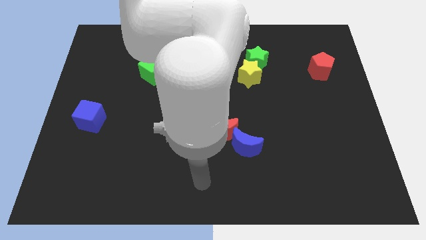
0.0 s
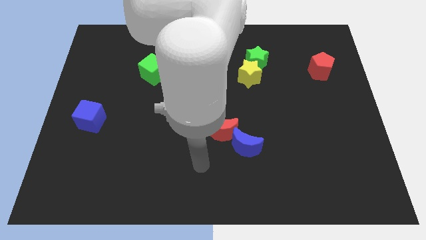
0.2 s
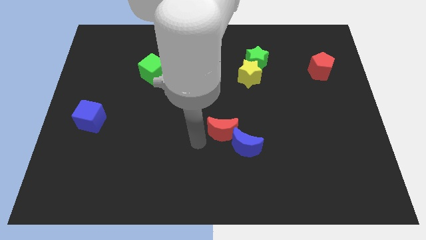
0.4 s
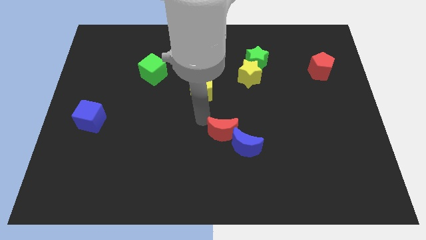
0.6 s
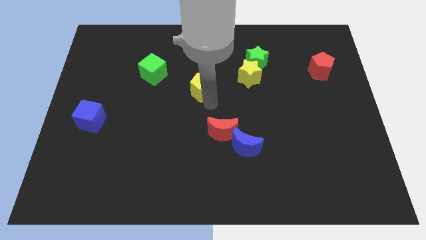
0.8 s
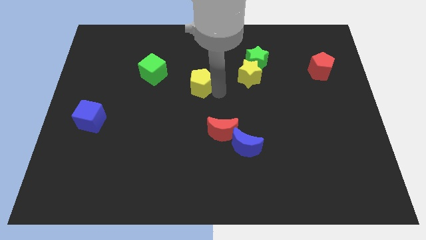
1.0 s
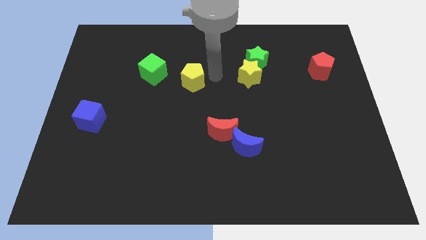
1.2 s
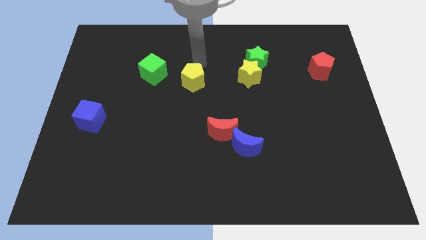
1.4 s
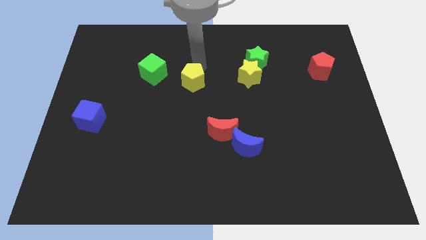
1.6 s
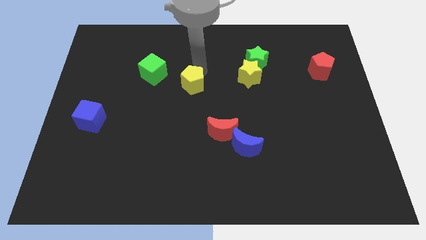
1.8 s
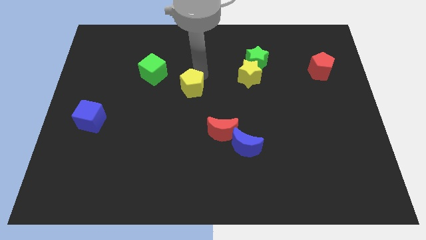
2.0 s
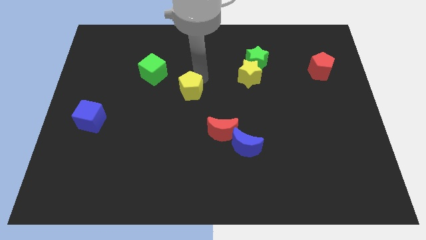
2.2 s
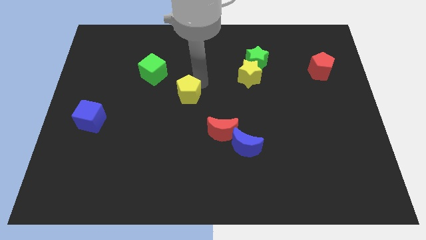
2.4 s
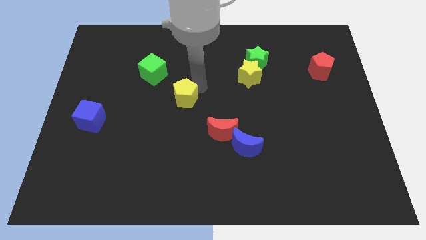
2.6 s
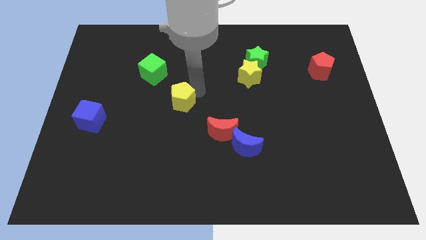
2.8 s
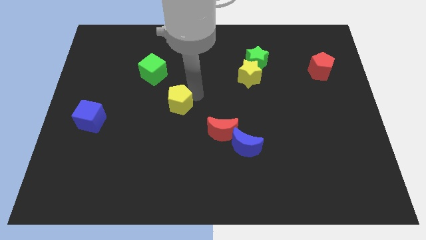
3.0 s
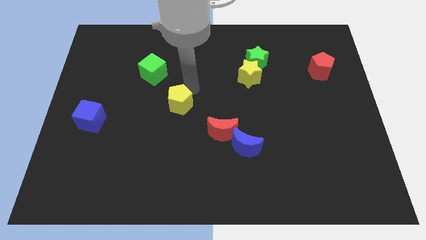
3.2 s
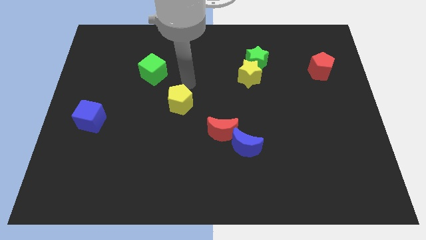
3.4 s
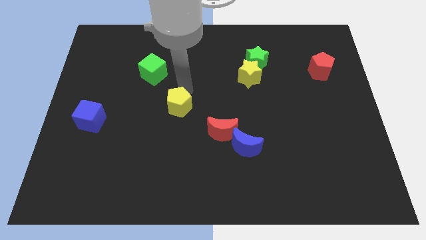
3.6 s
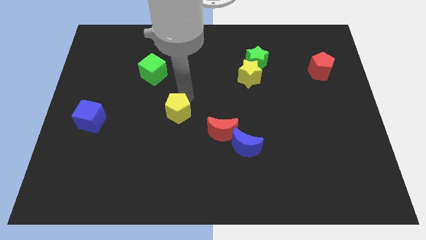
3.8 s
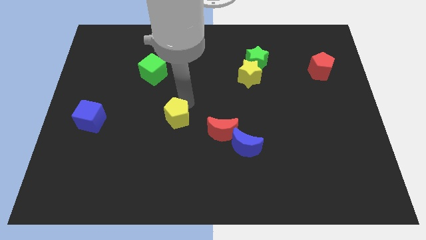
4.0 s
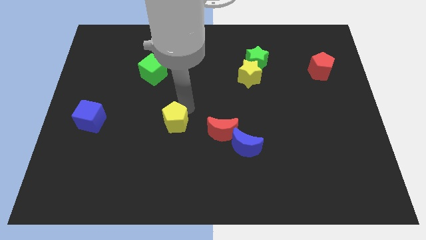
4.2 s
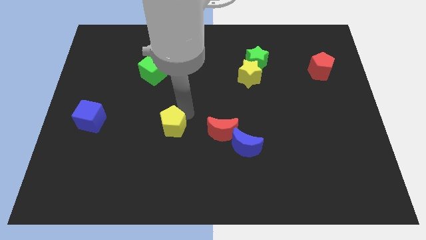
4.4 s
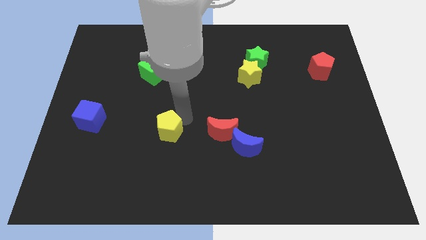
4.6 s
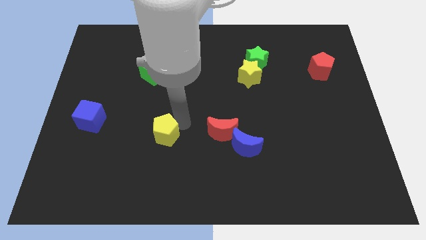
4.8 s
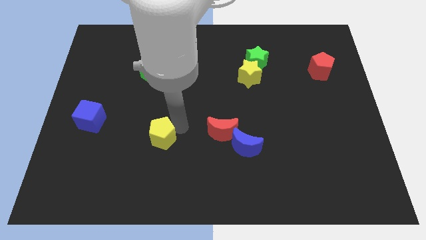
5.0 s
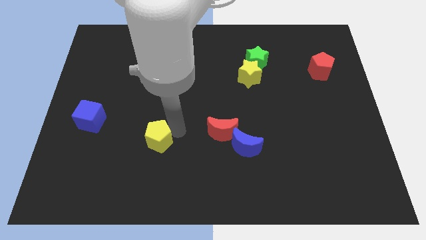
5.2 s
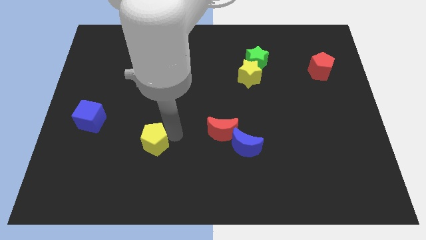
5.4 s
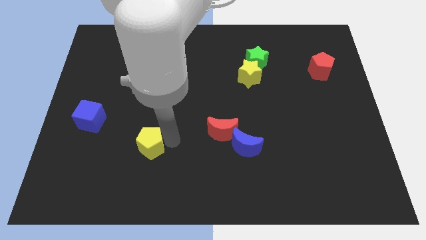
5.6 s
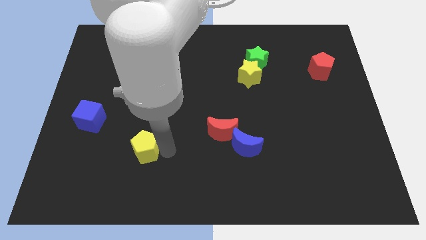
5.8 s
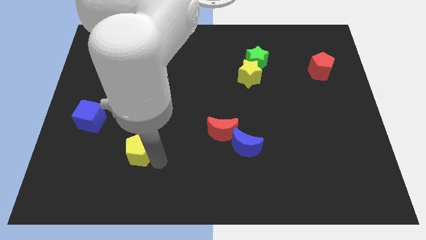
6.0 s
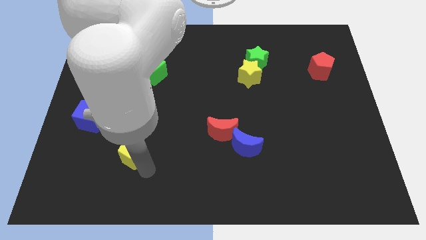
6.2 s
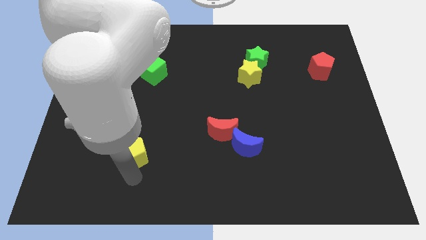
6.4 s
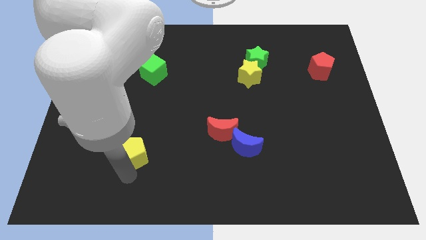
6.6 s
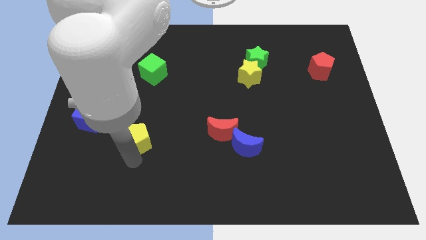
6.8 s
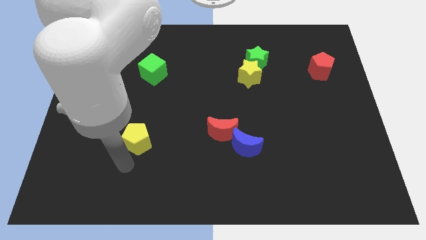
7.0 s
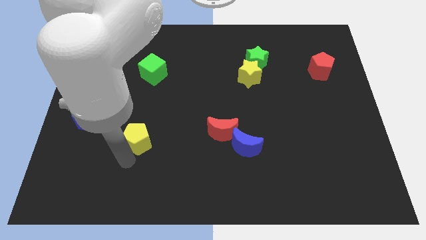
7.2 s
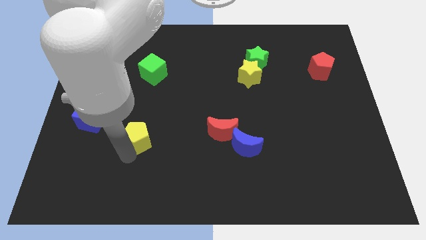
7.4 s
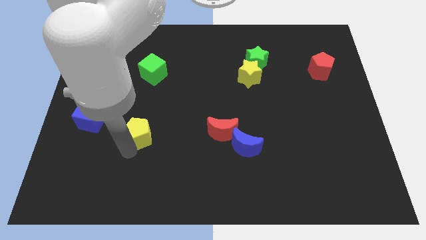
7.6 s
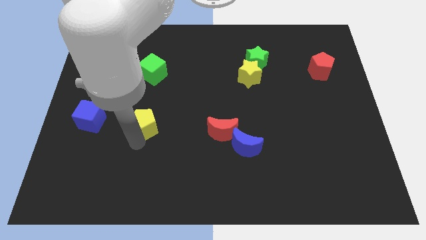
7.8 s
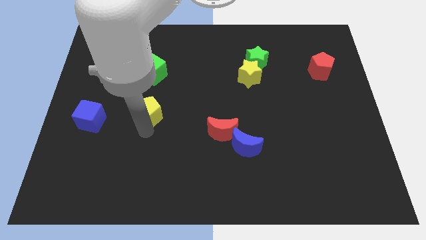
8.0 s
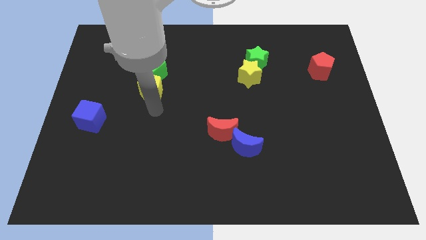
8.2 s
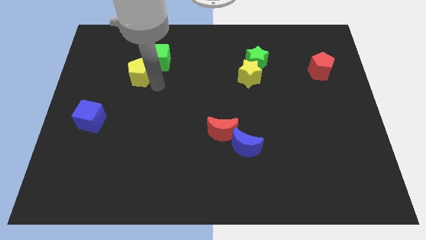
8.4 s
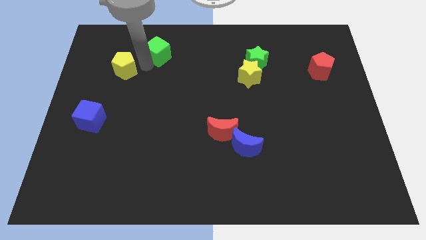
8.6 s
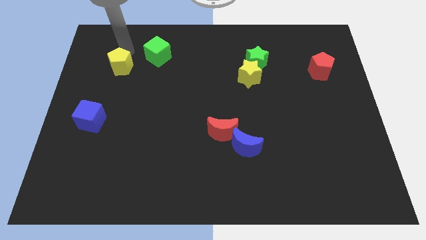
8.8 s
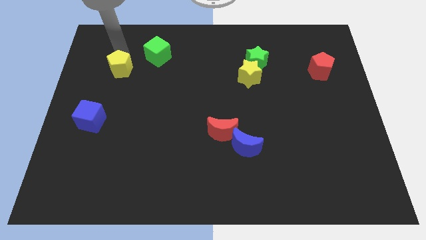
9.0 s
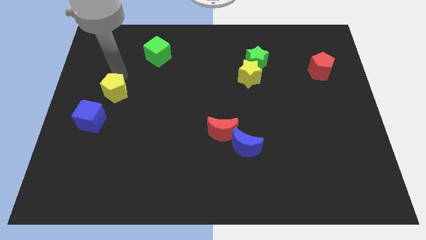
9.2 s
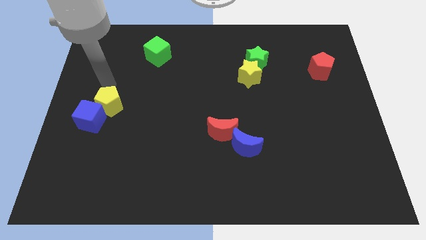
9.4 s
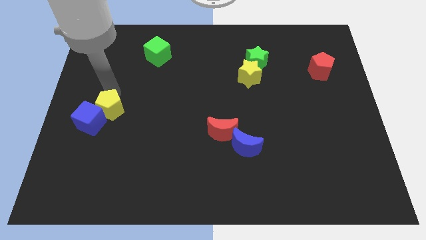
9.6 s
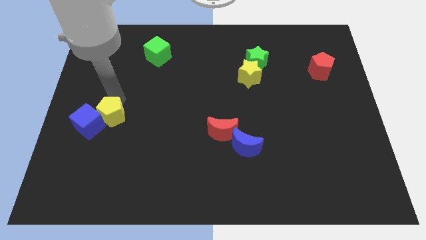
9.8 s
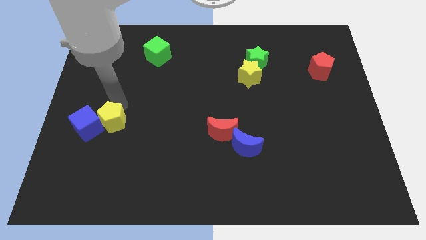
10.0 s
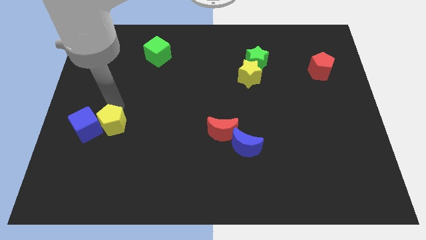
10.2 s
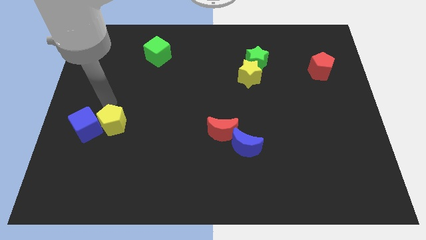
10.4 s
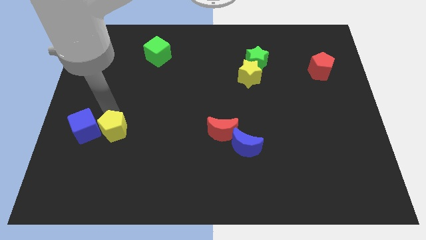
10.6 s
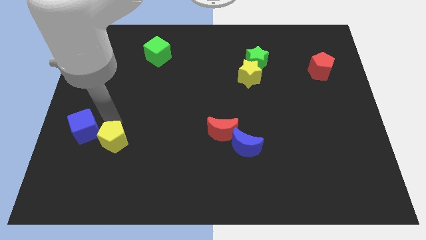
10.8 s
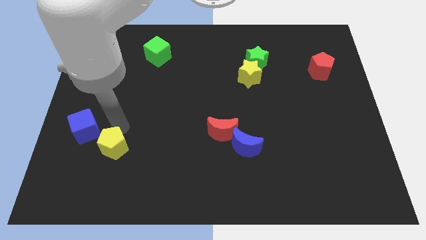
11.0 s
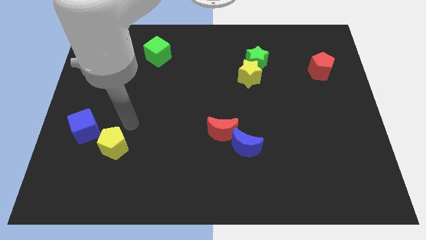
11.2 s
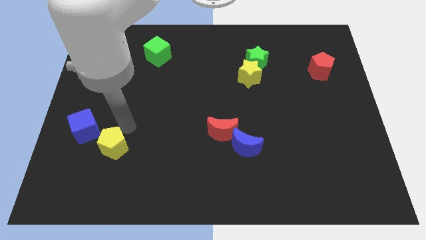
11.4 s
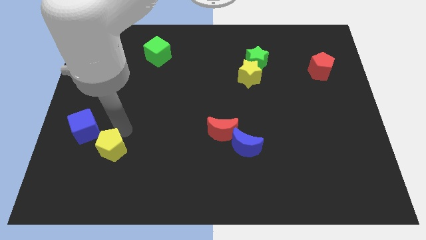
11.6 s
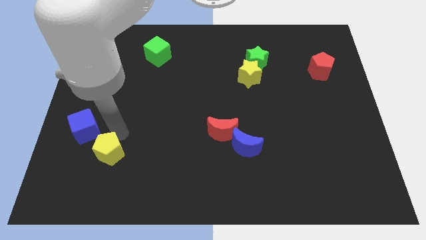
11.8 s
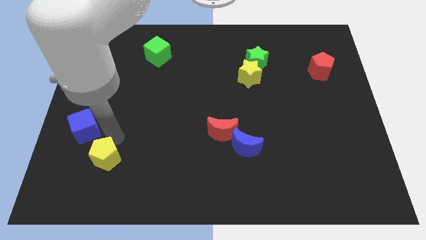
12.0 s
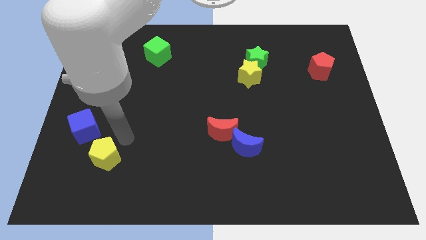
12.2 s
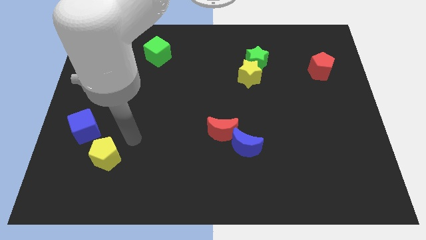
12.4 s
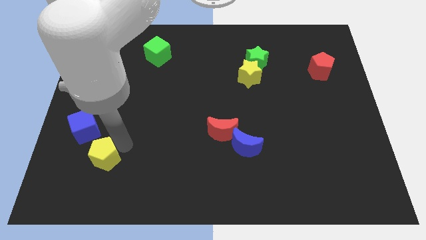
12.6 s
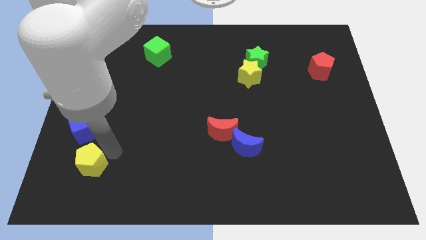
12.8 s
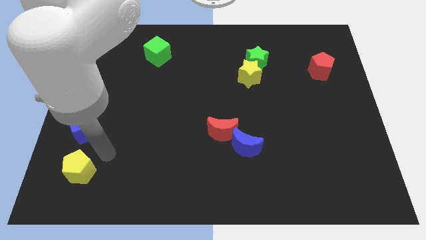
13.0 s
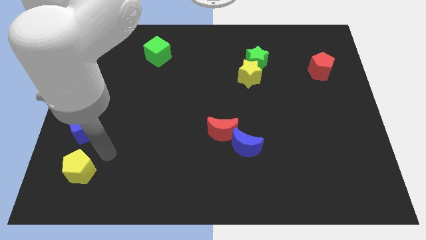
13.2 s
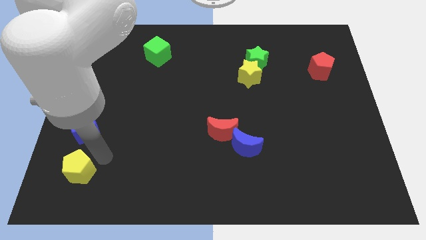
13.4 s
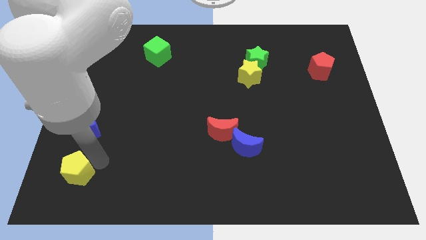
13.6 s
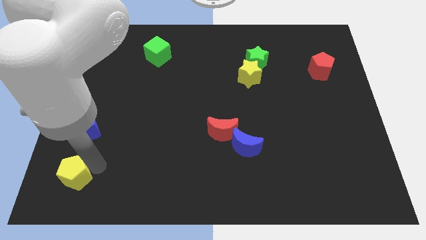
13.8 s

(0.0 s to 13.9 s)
push the yellow pentagon to the bottom left
